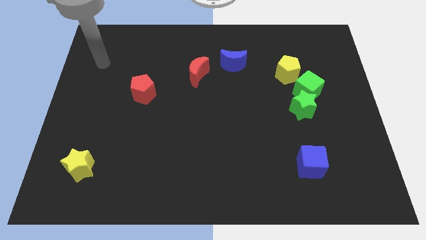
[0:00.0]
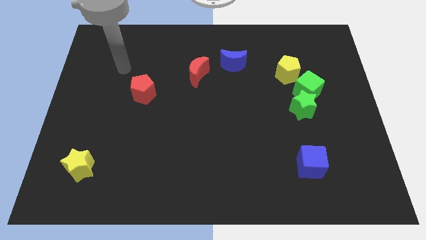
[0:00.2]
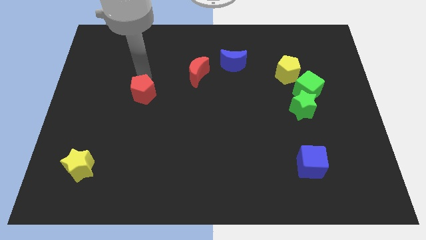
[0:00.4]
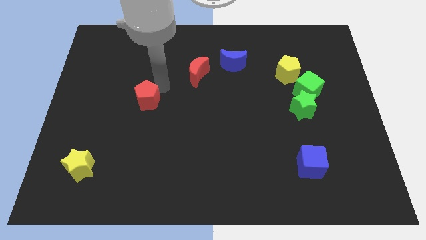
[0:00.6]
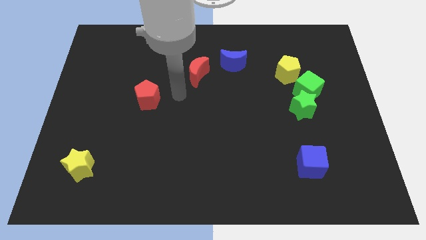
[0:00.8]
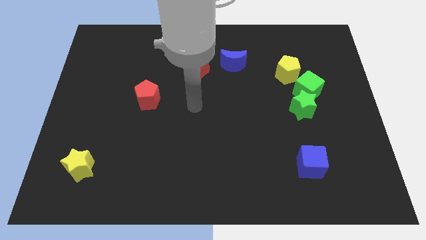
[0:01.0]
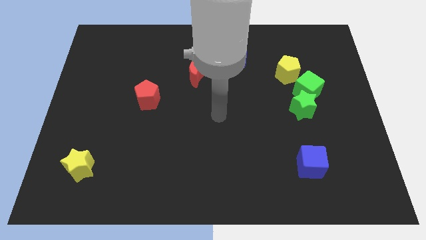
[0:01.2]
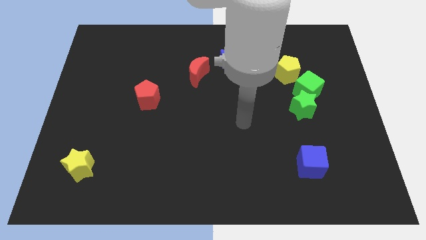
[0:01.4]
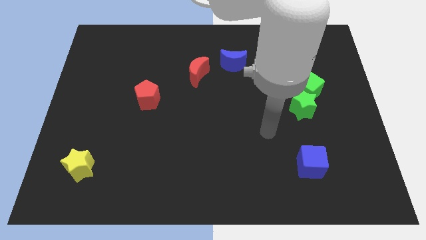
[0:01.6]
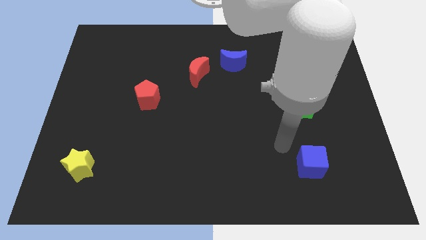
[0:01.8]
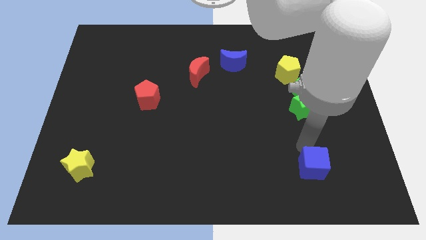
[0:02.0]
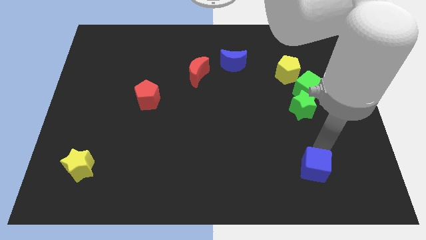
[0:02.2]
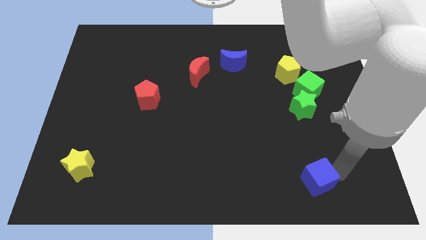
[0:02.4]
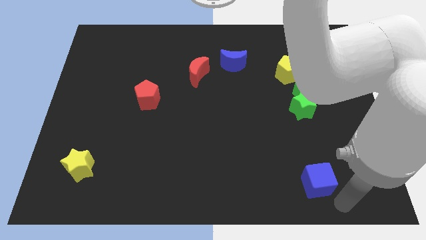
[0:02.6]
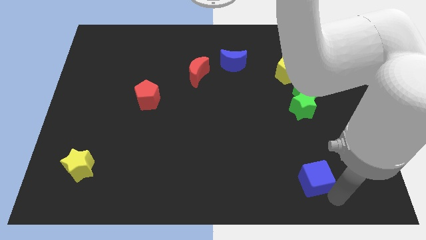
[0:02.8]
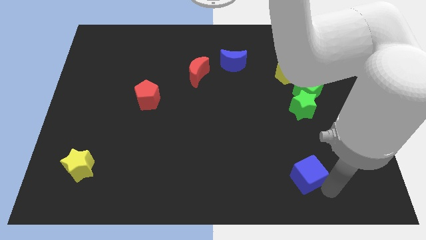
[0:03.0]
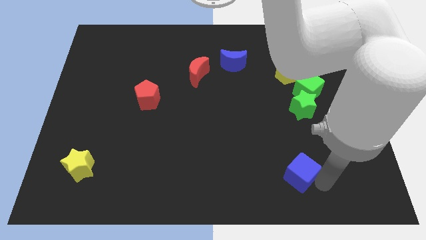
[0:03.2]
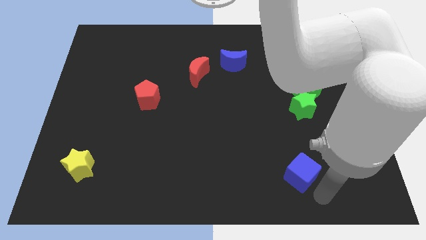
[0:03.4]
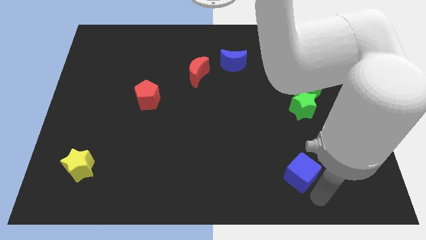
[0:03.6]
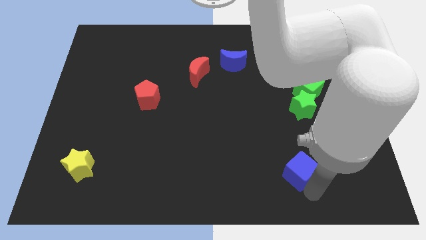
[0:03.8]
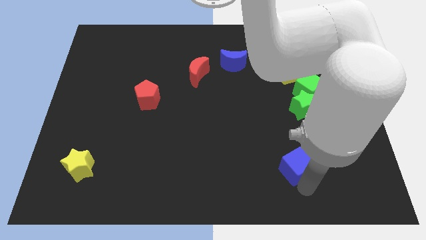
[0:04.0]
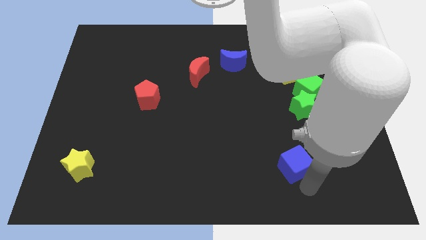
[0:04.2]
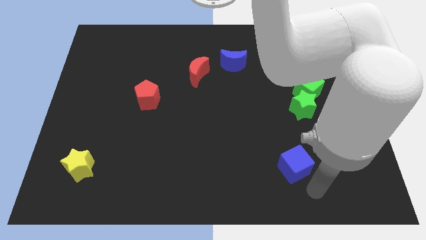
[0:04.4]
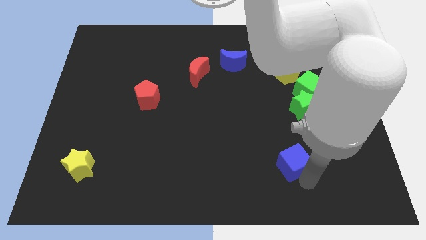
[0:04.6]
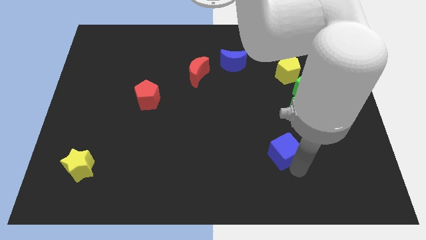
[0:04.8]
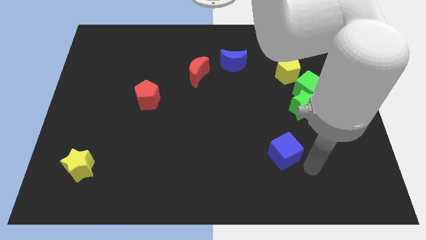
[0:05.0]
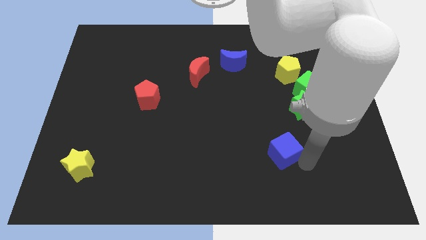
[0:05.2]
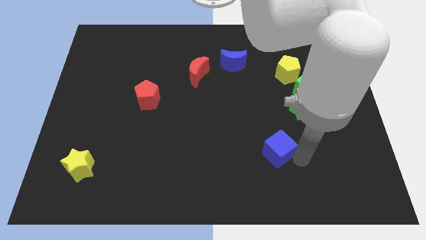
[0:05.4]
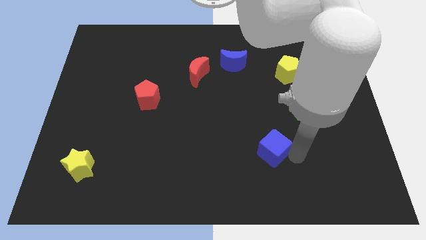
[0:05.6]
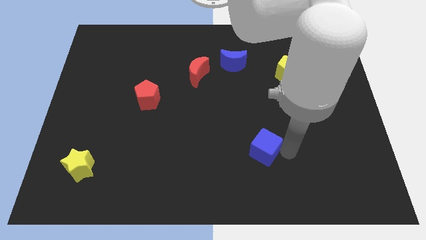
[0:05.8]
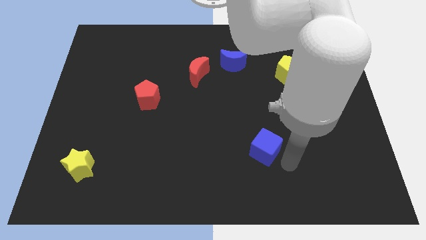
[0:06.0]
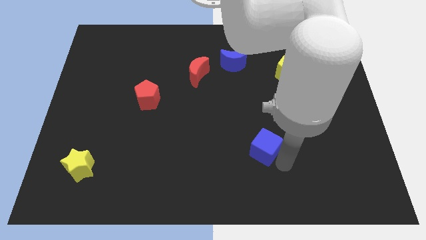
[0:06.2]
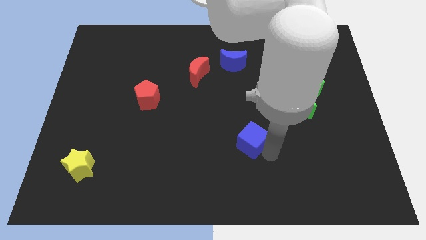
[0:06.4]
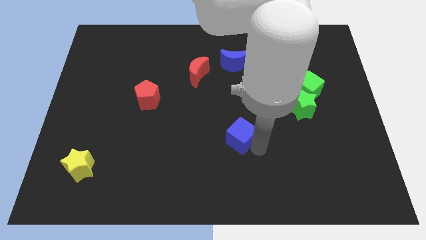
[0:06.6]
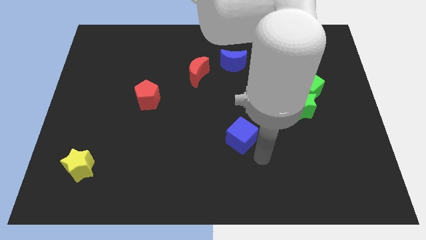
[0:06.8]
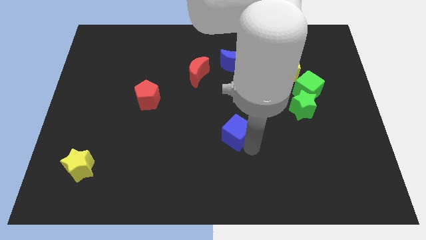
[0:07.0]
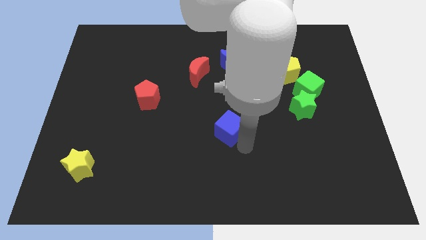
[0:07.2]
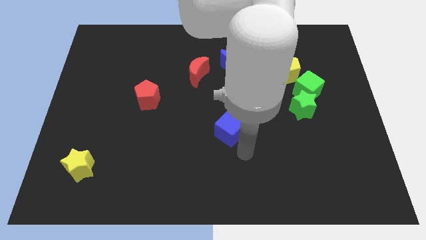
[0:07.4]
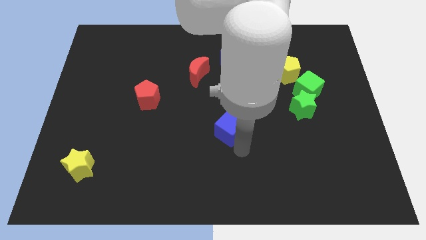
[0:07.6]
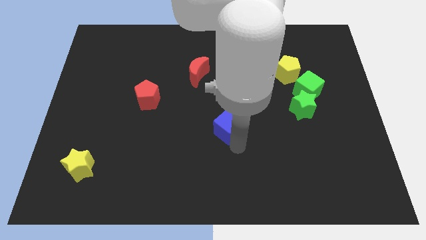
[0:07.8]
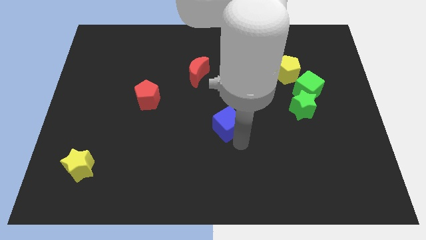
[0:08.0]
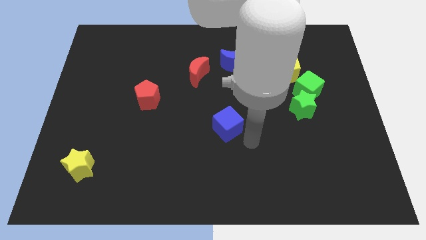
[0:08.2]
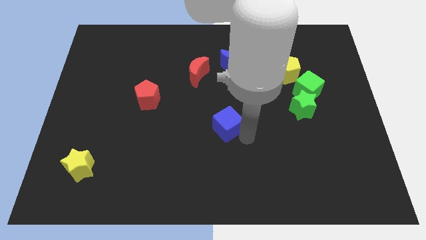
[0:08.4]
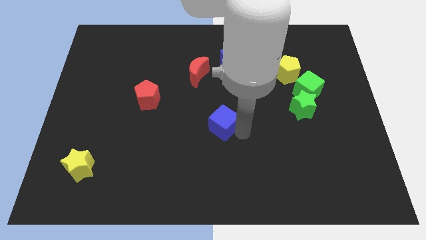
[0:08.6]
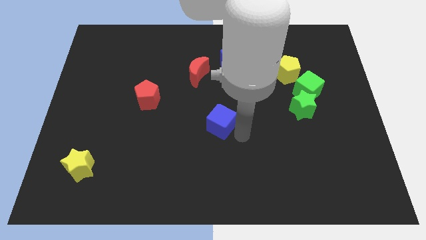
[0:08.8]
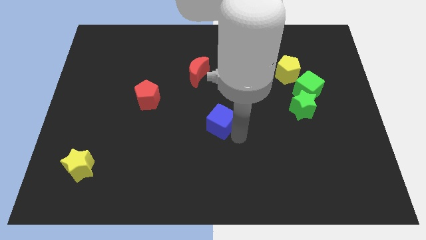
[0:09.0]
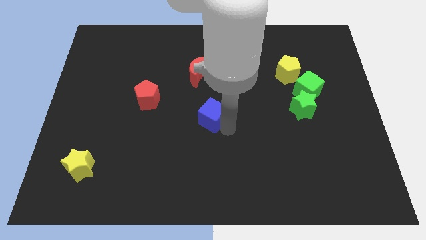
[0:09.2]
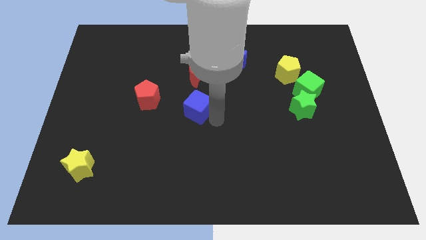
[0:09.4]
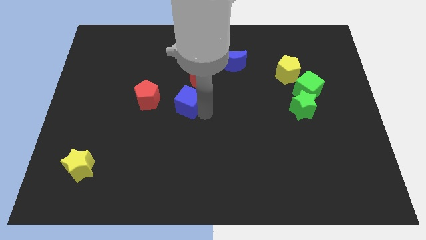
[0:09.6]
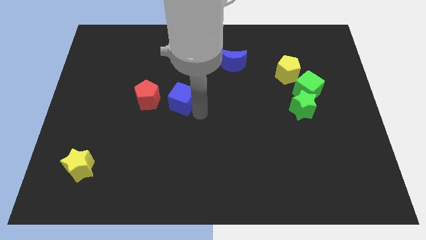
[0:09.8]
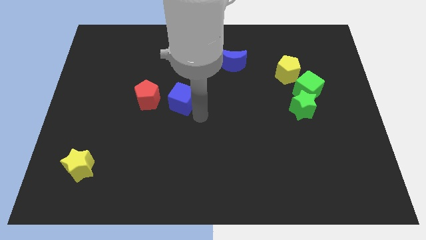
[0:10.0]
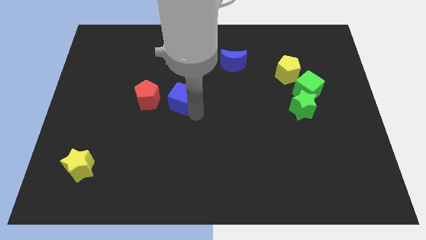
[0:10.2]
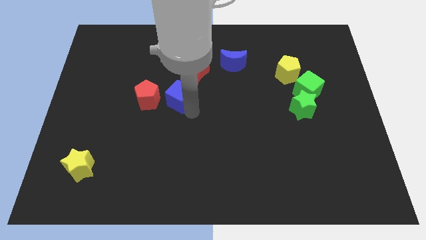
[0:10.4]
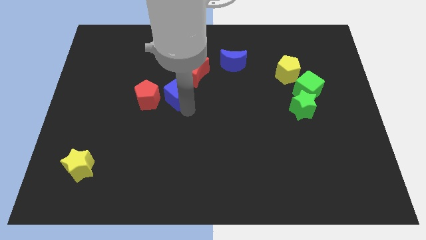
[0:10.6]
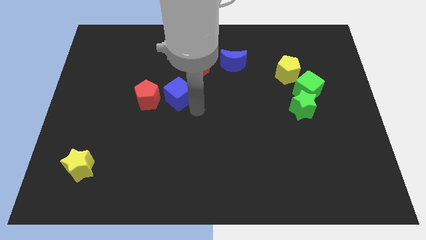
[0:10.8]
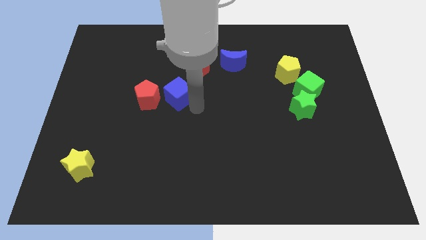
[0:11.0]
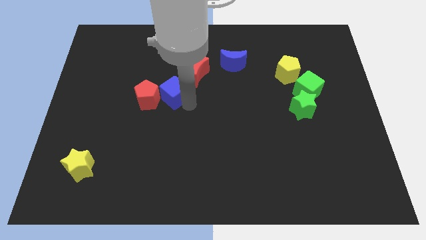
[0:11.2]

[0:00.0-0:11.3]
move the blue cube towards the red pentagon
